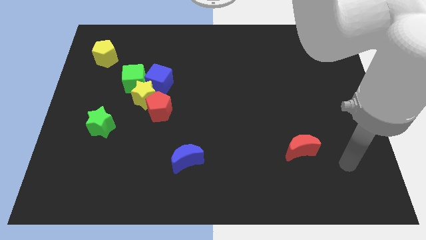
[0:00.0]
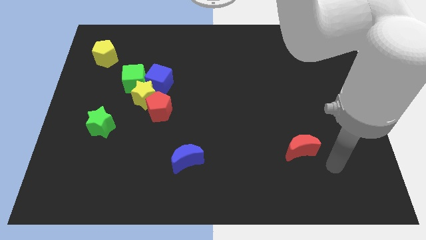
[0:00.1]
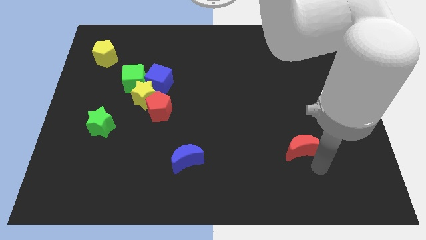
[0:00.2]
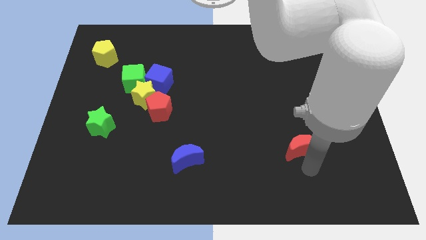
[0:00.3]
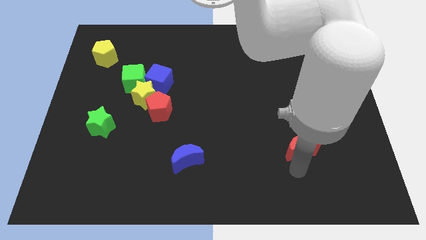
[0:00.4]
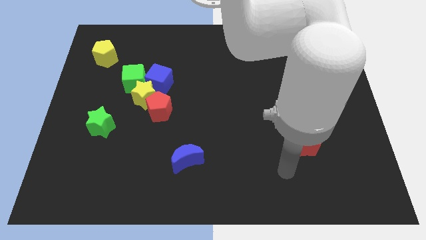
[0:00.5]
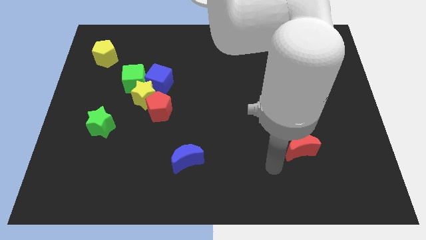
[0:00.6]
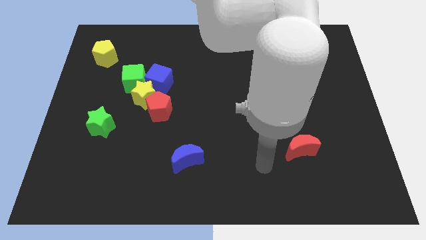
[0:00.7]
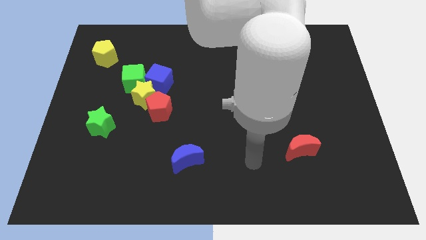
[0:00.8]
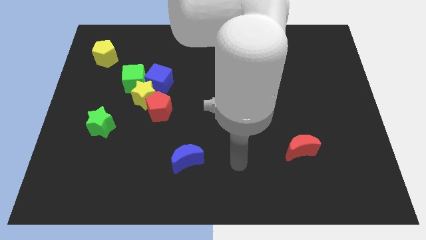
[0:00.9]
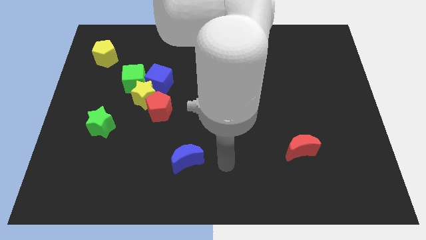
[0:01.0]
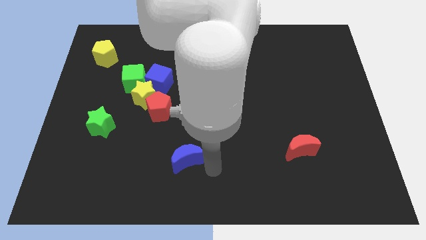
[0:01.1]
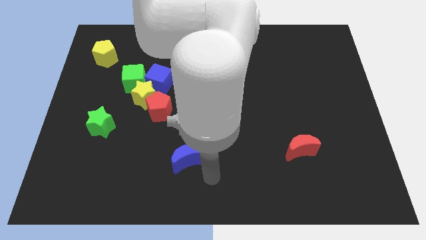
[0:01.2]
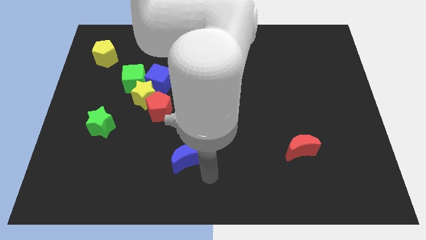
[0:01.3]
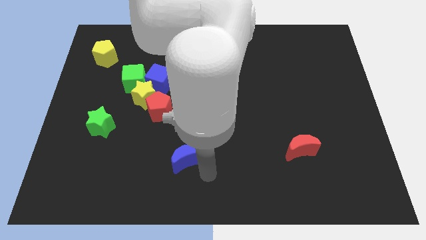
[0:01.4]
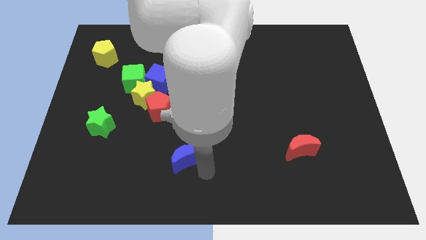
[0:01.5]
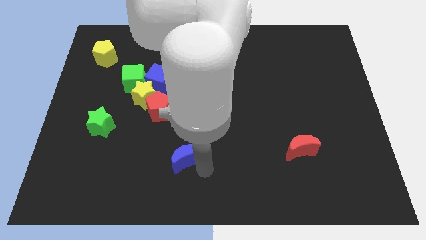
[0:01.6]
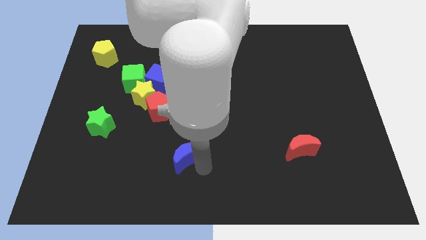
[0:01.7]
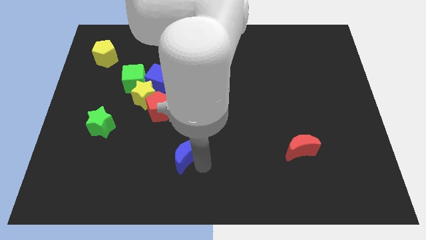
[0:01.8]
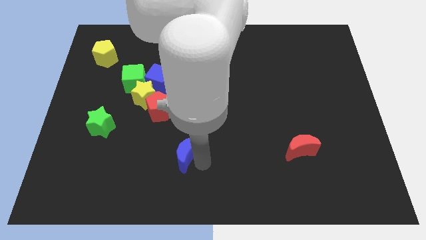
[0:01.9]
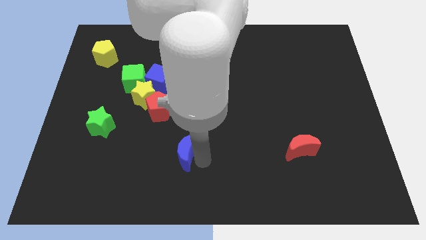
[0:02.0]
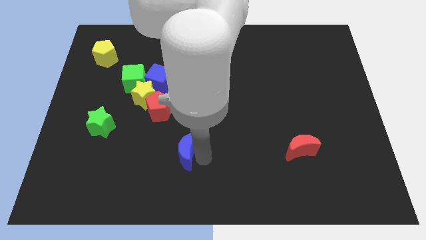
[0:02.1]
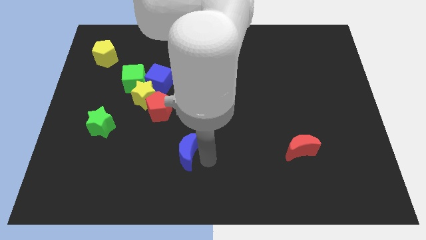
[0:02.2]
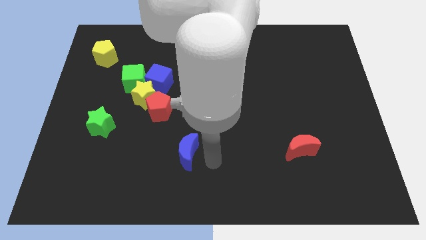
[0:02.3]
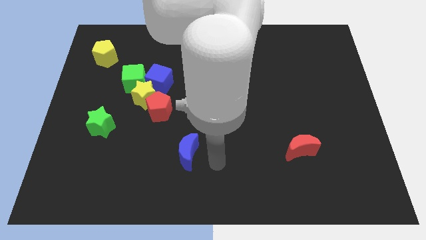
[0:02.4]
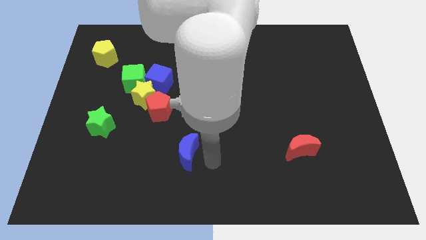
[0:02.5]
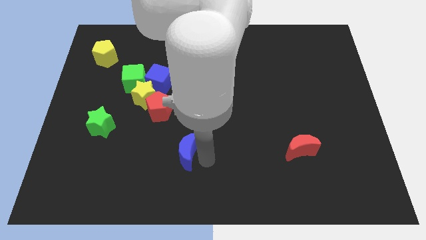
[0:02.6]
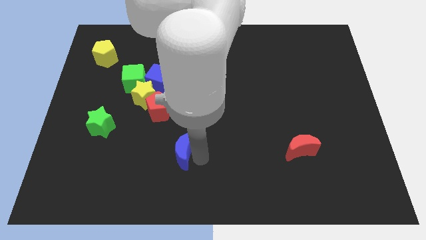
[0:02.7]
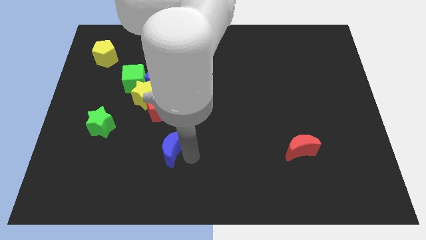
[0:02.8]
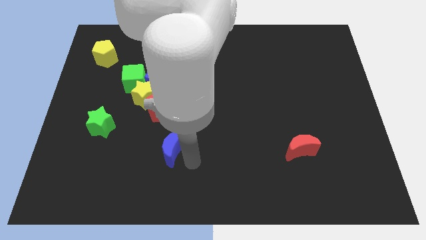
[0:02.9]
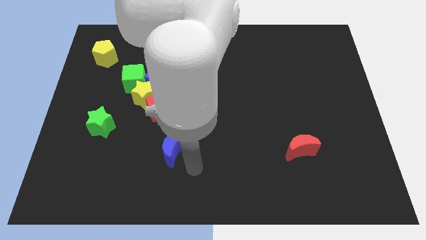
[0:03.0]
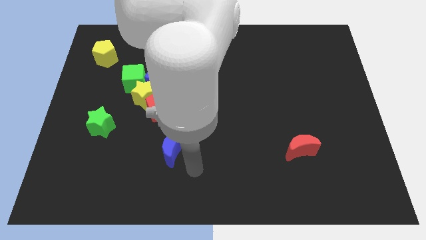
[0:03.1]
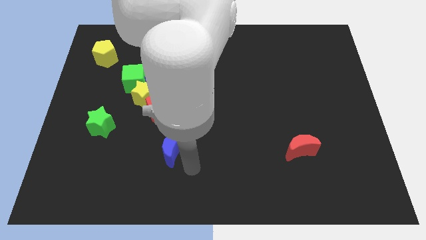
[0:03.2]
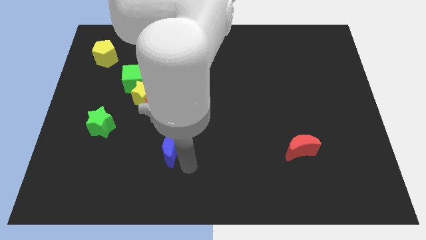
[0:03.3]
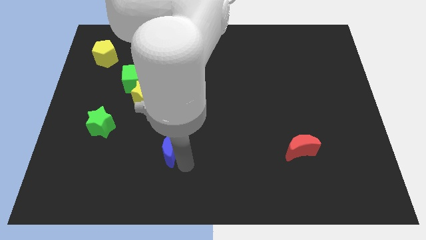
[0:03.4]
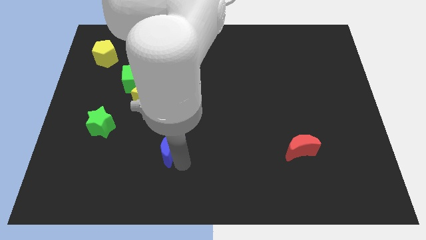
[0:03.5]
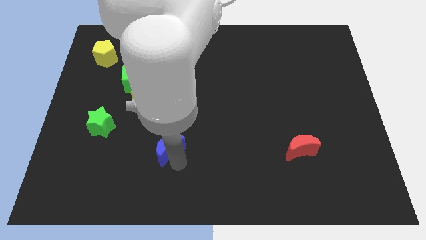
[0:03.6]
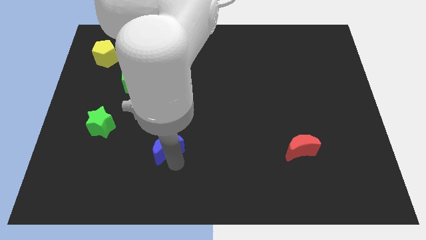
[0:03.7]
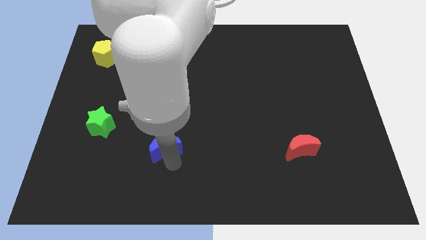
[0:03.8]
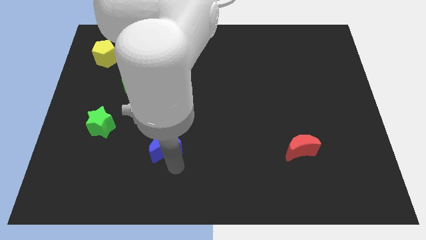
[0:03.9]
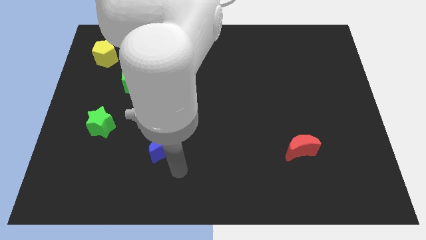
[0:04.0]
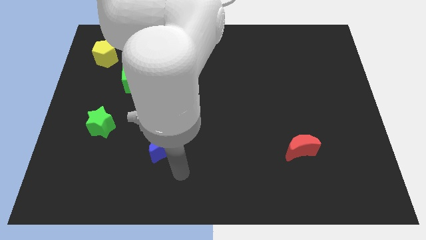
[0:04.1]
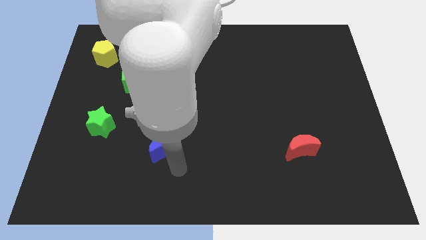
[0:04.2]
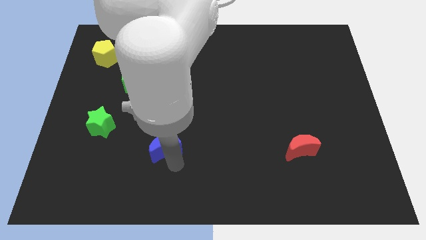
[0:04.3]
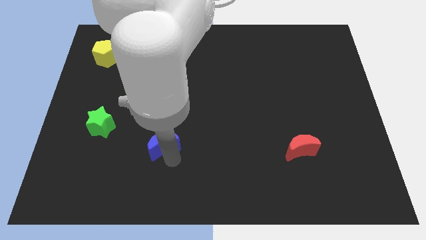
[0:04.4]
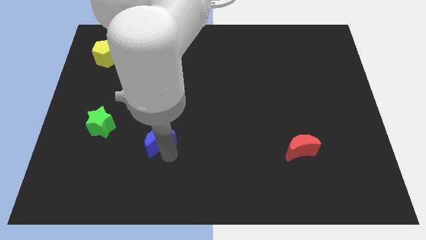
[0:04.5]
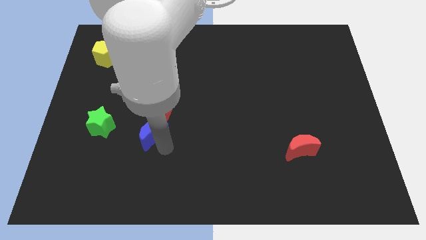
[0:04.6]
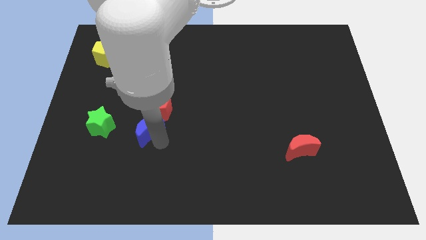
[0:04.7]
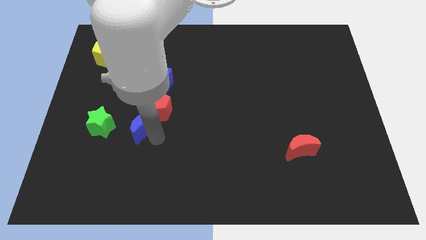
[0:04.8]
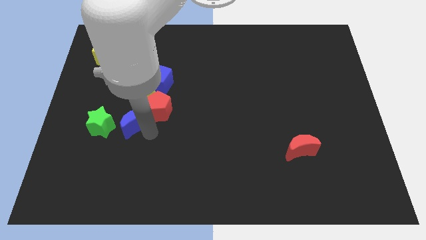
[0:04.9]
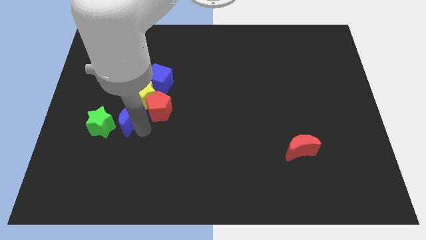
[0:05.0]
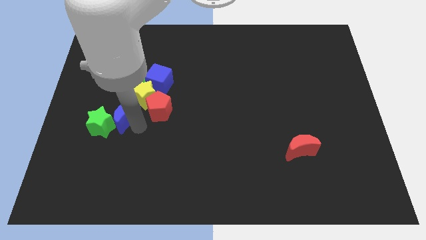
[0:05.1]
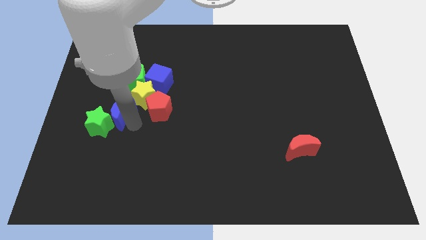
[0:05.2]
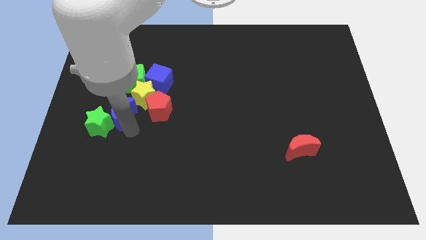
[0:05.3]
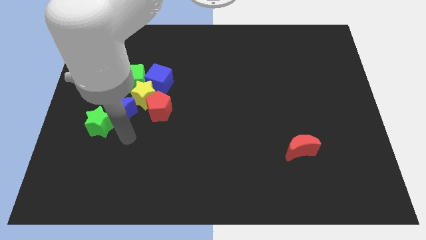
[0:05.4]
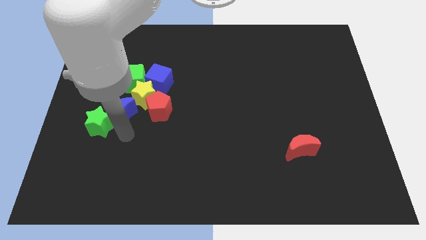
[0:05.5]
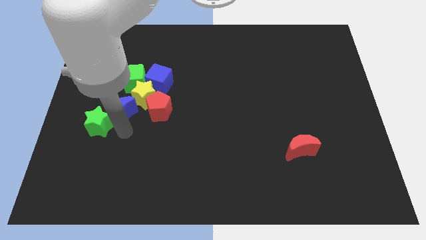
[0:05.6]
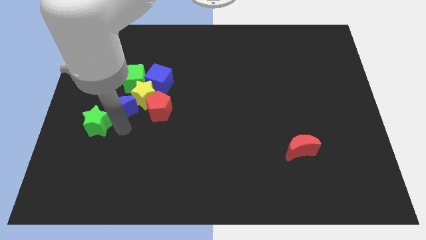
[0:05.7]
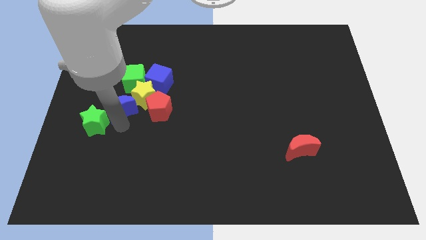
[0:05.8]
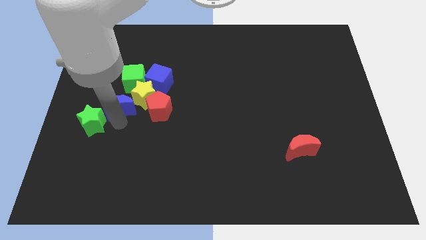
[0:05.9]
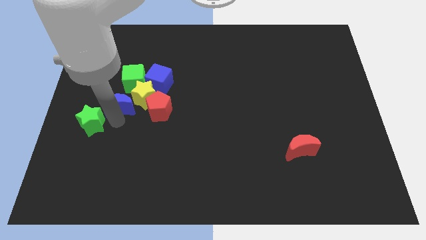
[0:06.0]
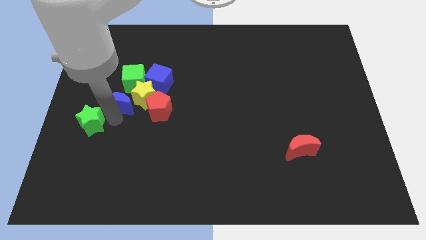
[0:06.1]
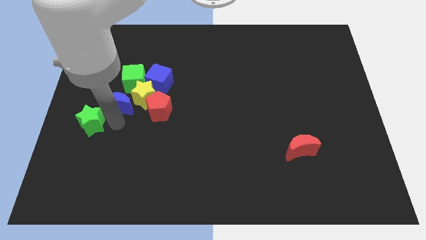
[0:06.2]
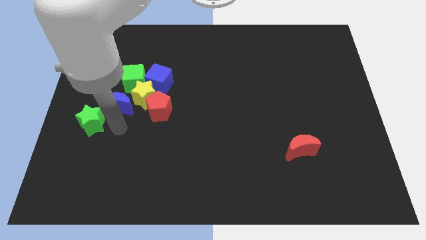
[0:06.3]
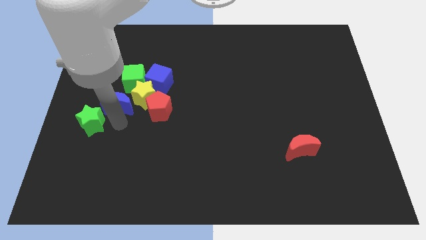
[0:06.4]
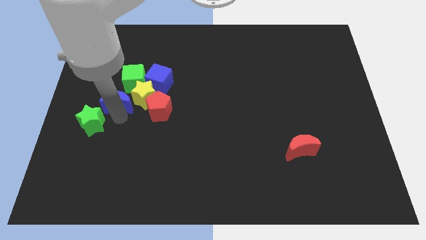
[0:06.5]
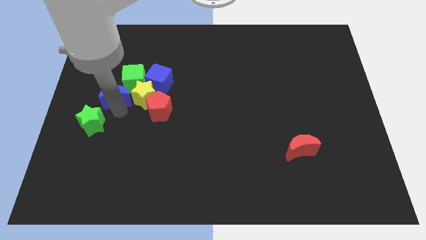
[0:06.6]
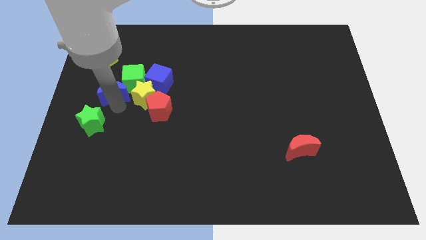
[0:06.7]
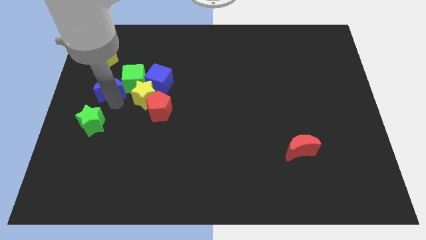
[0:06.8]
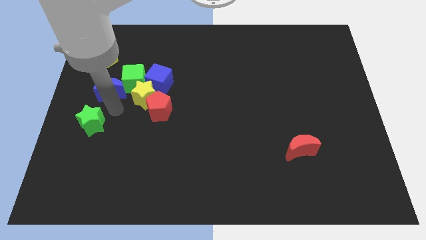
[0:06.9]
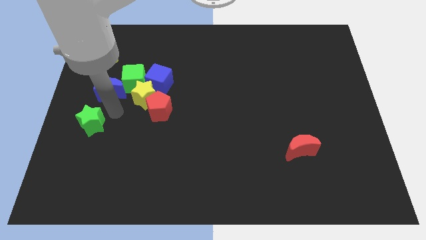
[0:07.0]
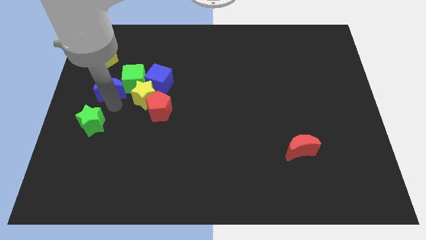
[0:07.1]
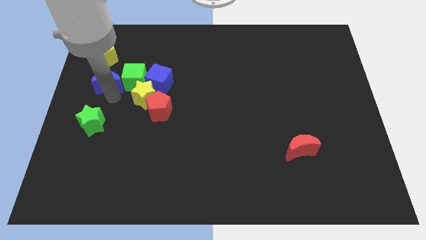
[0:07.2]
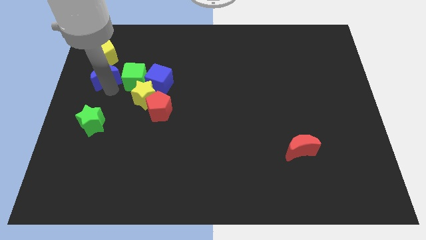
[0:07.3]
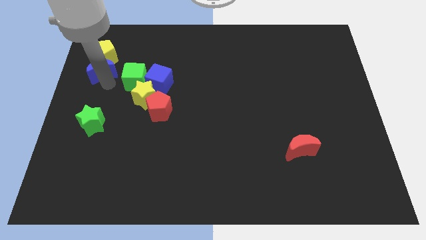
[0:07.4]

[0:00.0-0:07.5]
move the blue moon close to the yellow pentagon
